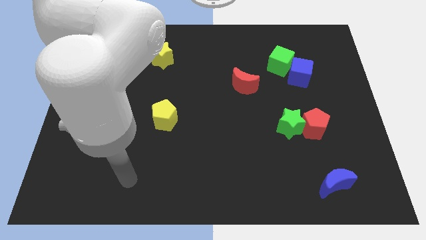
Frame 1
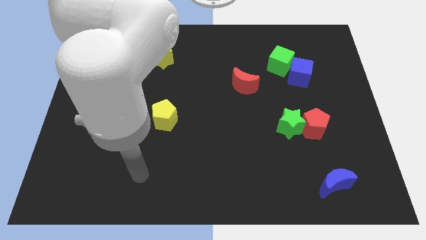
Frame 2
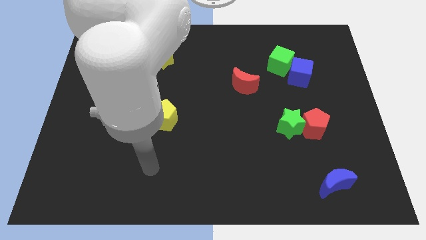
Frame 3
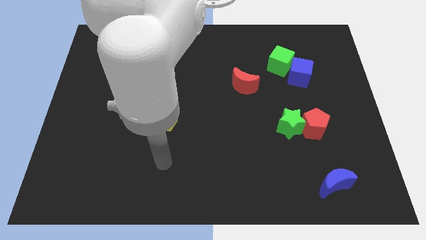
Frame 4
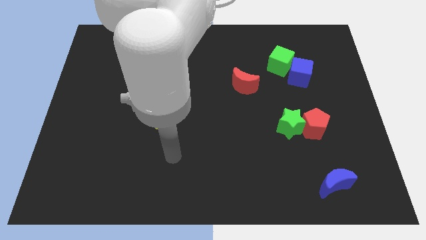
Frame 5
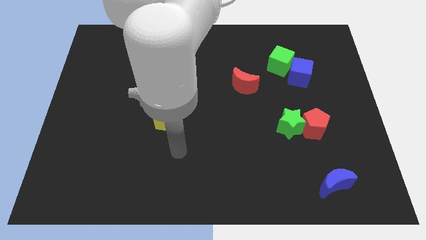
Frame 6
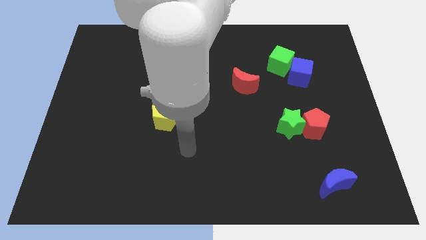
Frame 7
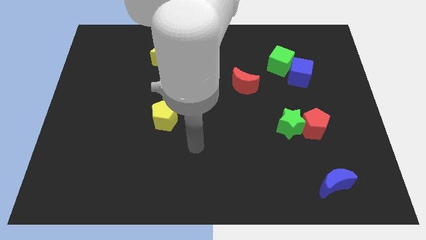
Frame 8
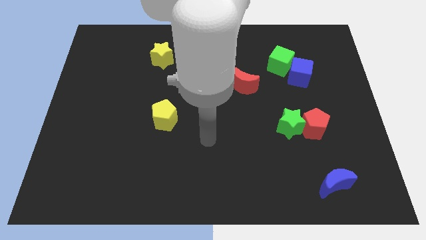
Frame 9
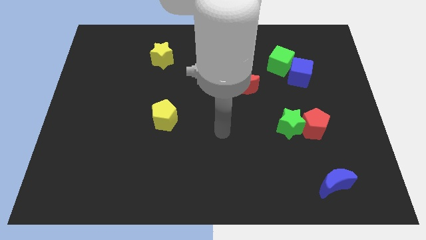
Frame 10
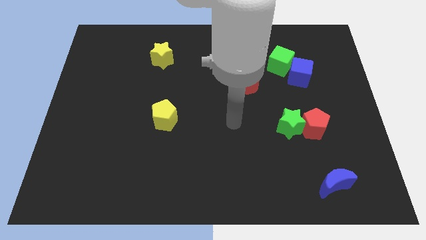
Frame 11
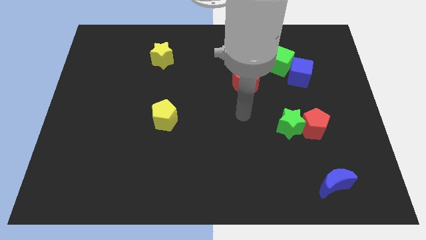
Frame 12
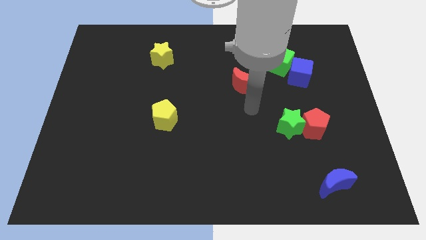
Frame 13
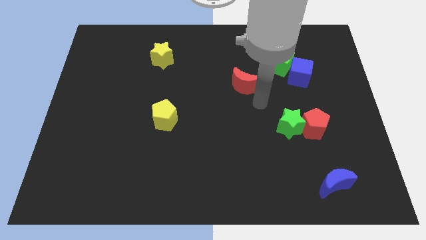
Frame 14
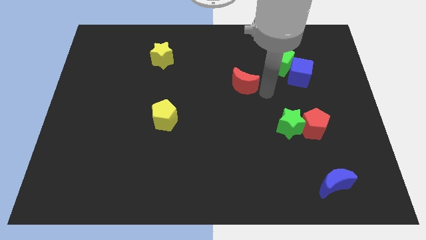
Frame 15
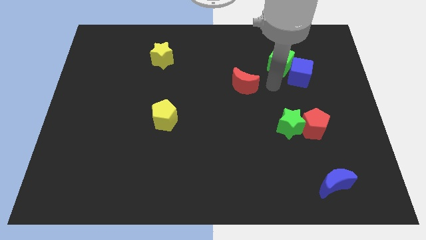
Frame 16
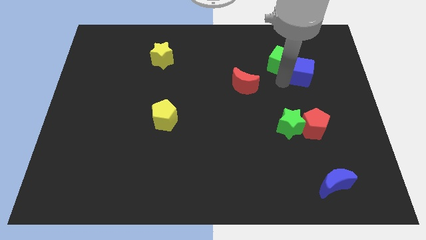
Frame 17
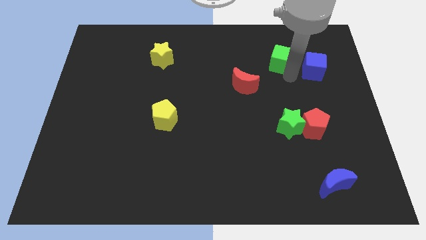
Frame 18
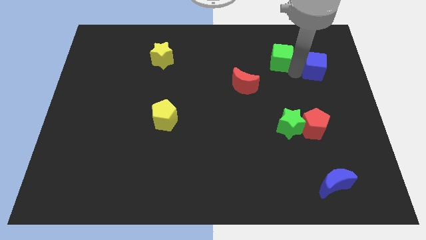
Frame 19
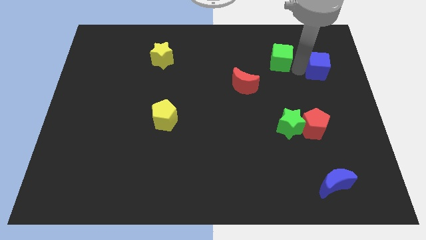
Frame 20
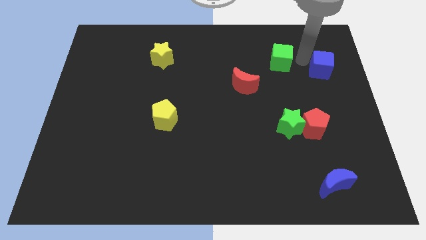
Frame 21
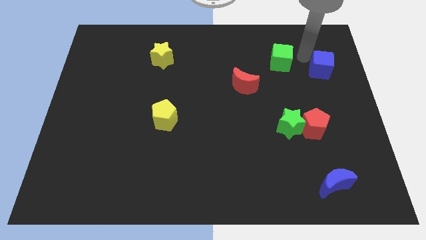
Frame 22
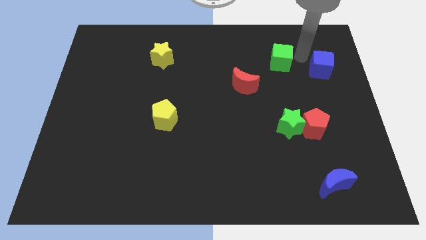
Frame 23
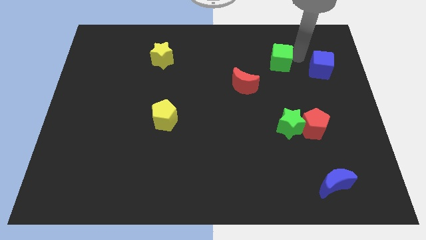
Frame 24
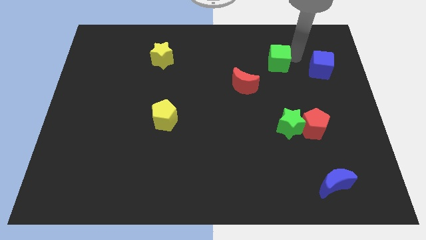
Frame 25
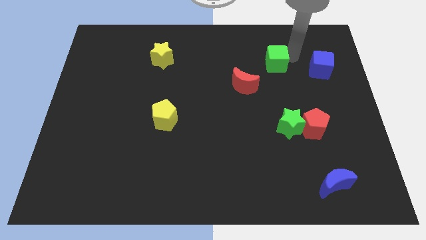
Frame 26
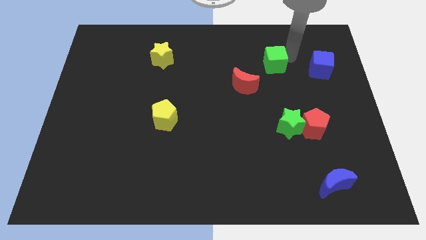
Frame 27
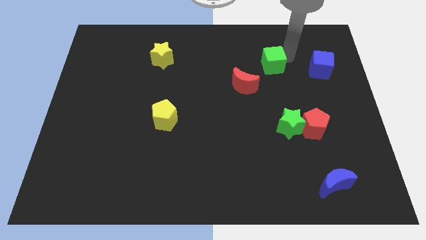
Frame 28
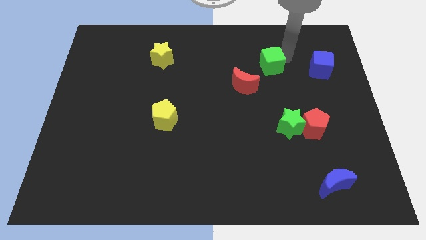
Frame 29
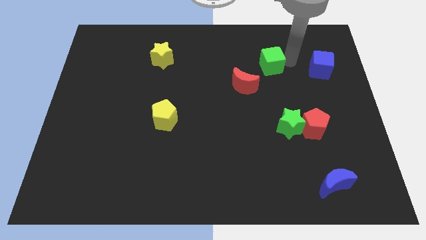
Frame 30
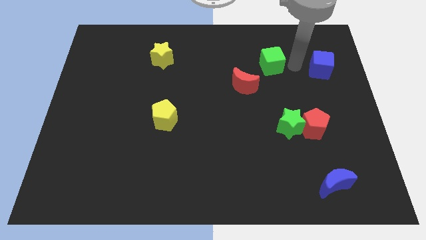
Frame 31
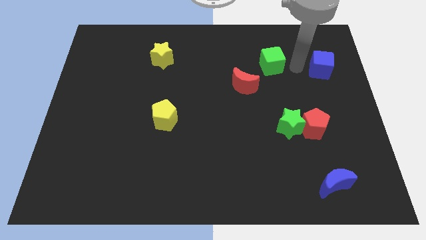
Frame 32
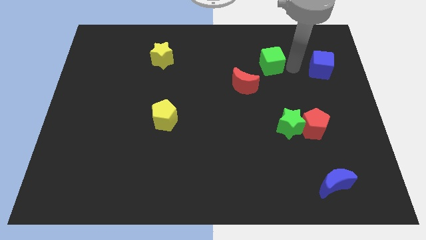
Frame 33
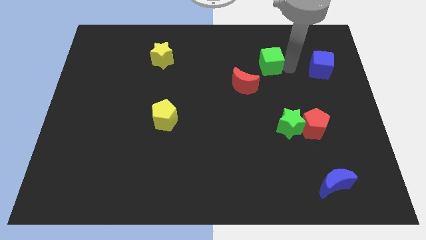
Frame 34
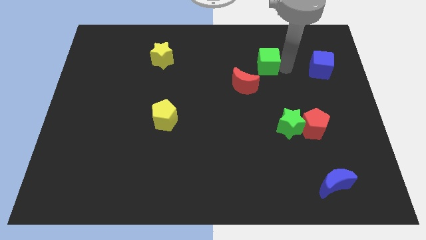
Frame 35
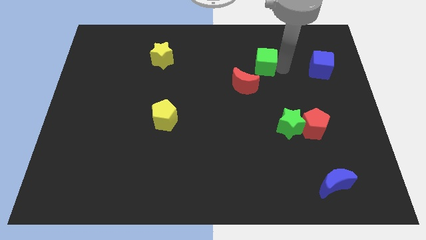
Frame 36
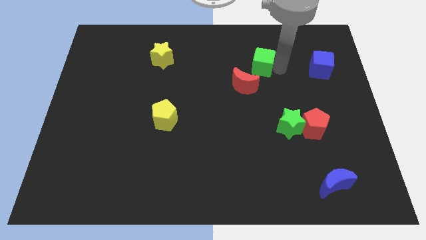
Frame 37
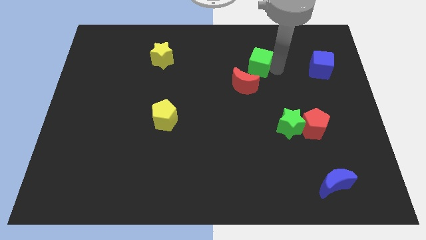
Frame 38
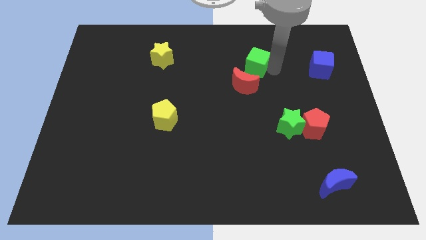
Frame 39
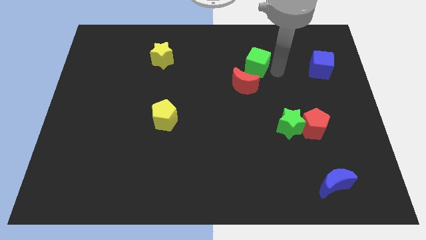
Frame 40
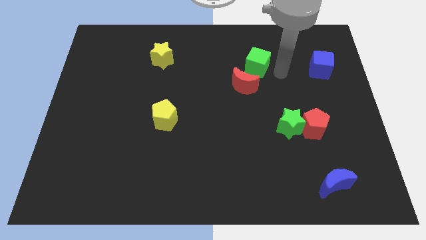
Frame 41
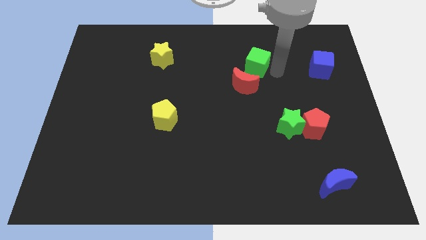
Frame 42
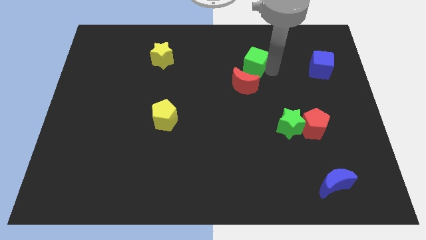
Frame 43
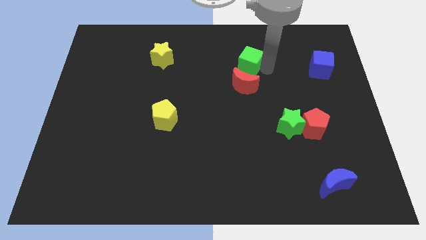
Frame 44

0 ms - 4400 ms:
slightly slide the green cube to the left

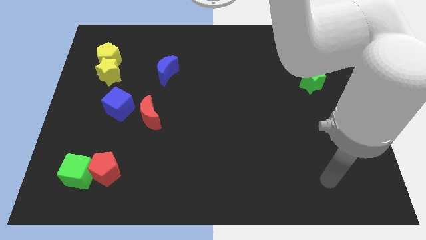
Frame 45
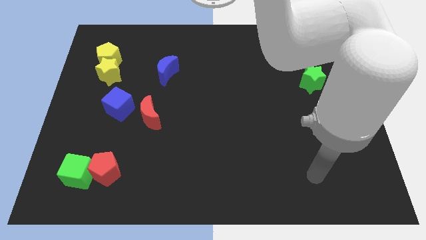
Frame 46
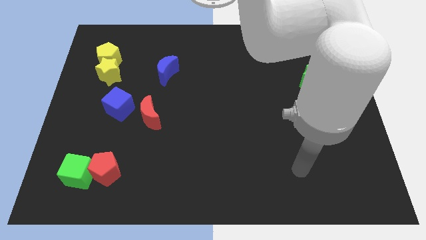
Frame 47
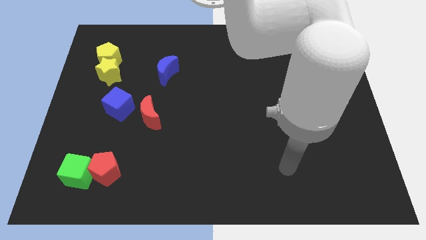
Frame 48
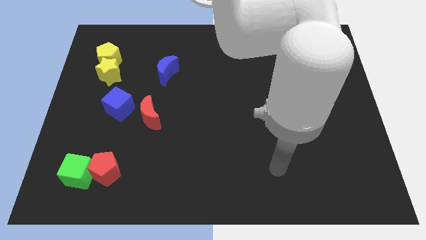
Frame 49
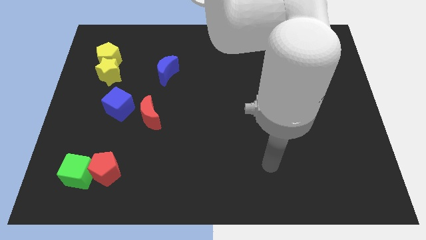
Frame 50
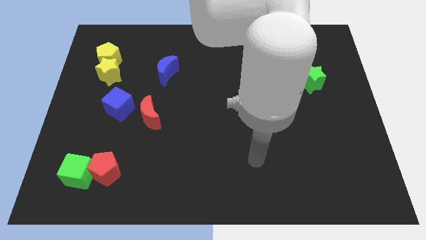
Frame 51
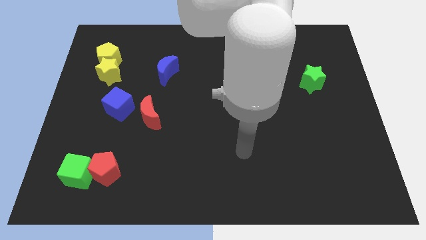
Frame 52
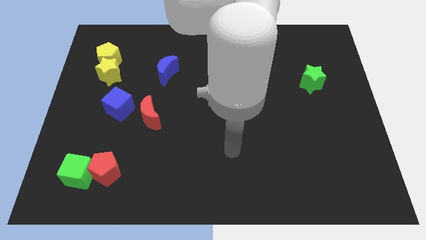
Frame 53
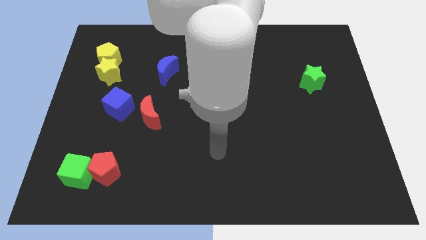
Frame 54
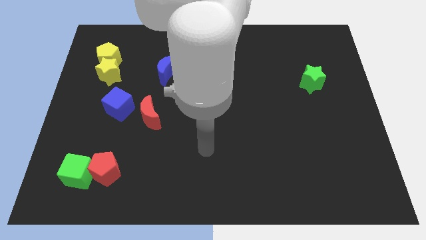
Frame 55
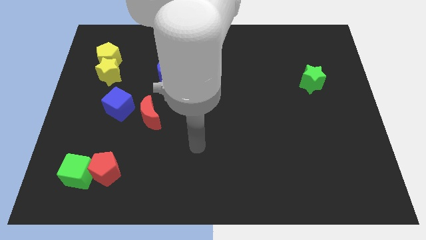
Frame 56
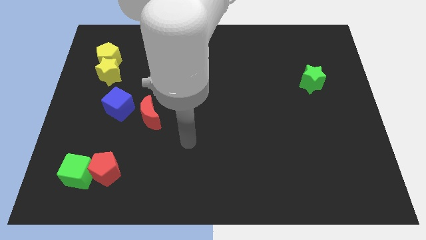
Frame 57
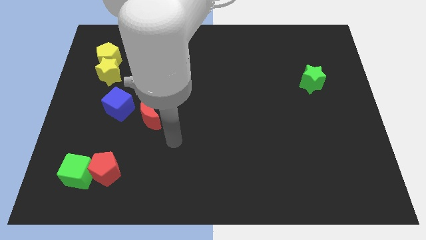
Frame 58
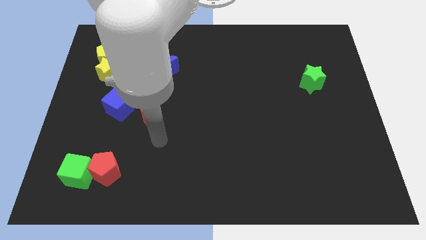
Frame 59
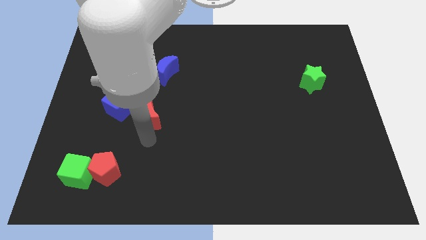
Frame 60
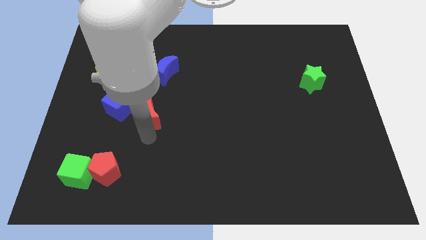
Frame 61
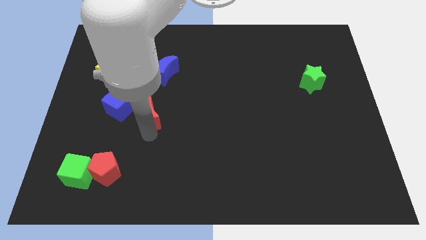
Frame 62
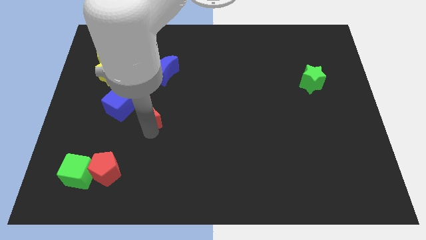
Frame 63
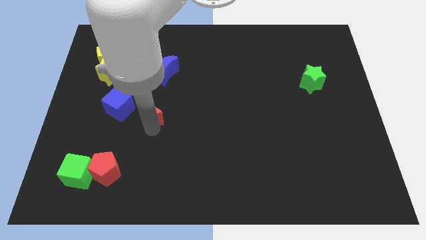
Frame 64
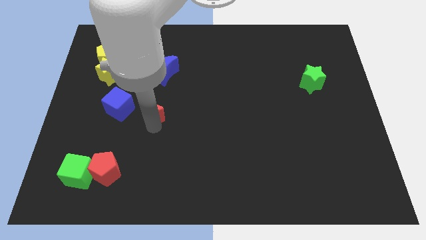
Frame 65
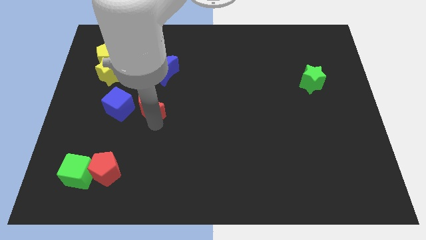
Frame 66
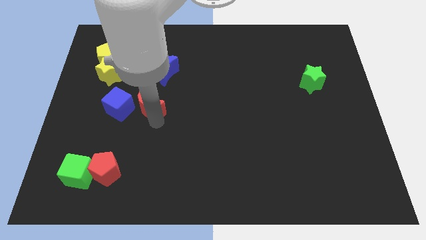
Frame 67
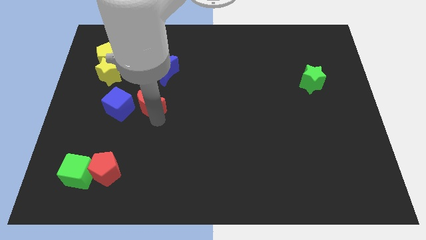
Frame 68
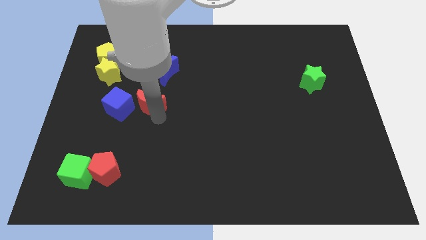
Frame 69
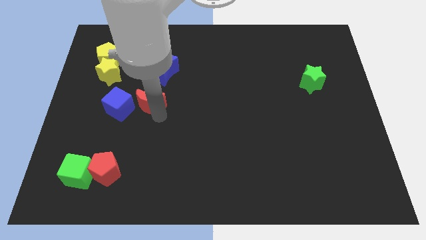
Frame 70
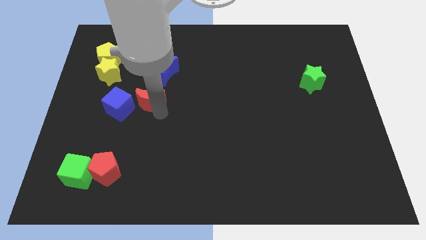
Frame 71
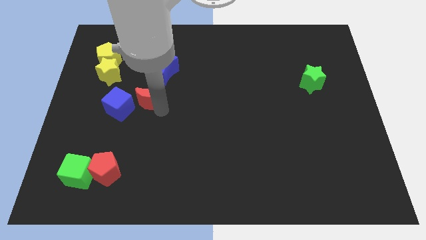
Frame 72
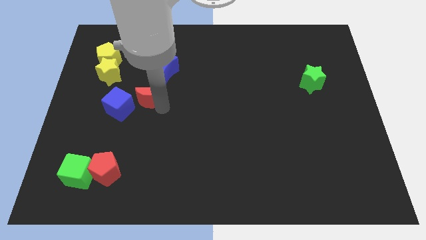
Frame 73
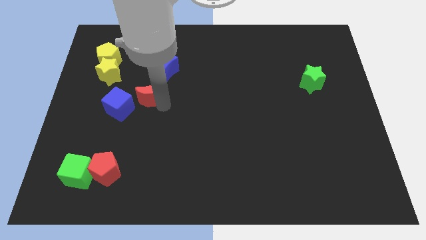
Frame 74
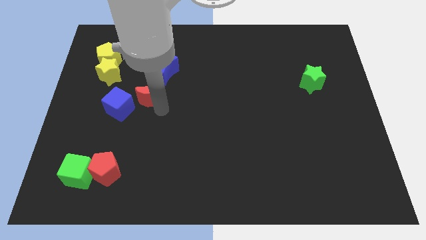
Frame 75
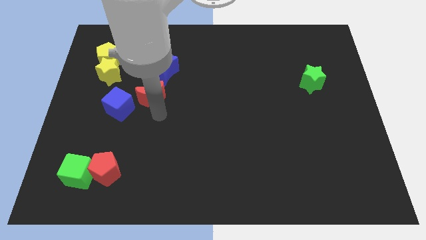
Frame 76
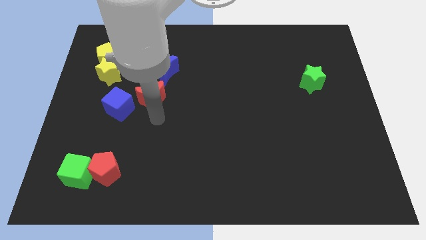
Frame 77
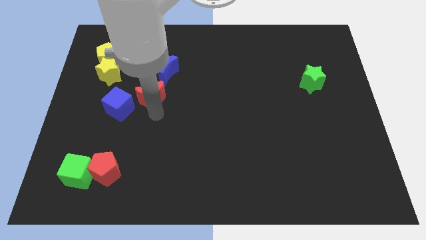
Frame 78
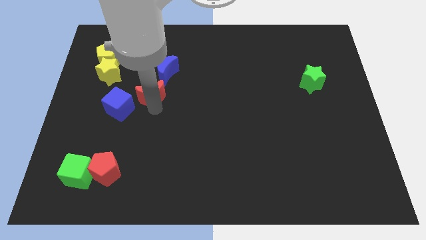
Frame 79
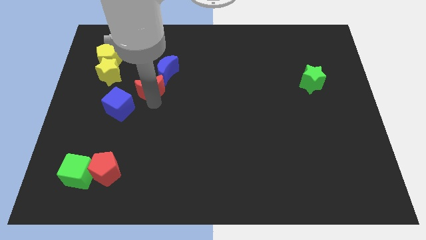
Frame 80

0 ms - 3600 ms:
move the red moon a bit upwards
